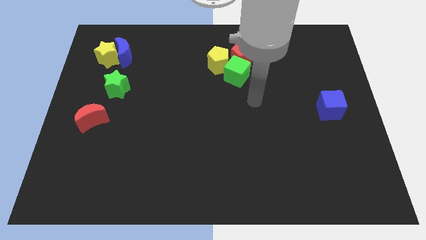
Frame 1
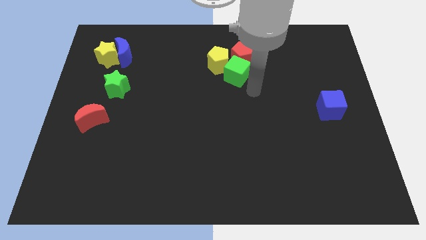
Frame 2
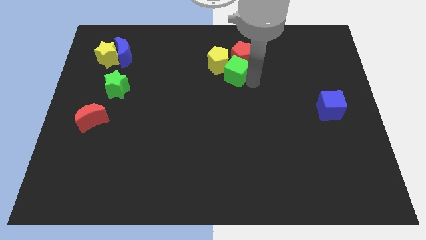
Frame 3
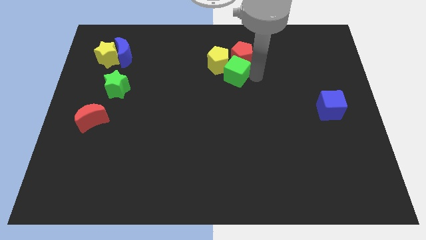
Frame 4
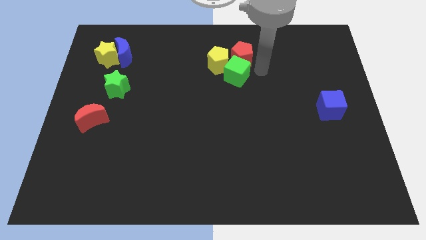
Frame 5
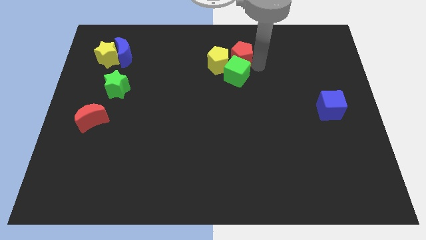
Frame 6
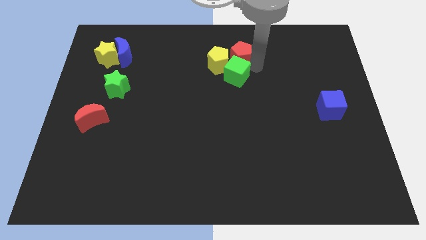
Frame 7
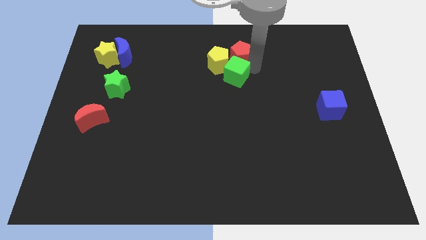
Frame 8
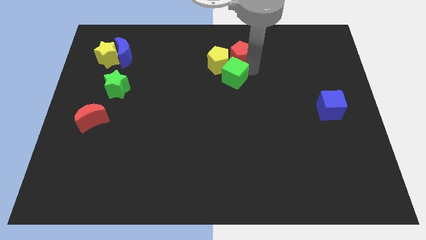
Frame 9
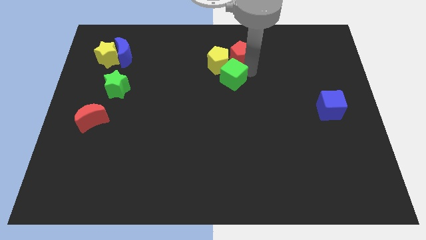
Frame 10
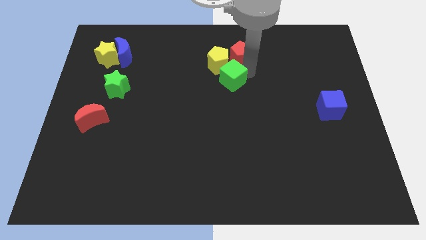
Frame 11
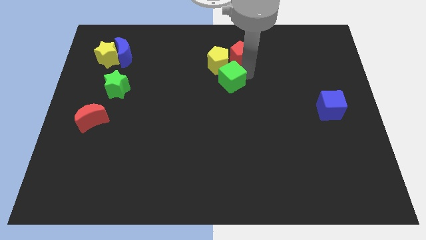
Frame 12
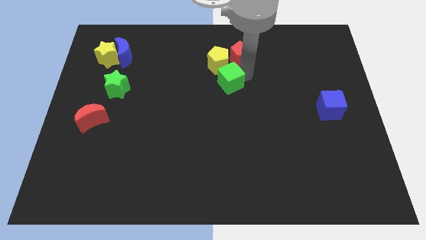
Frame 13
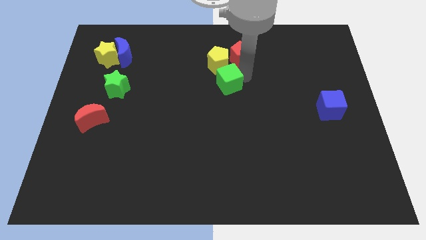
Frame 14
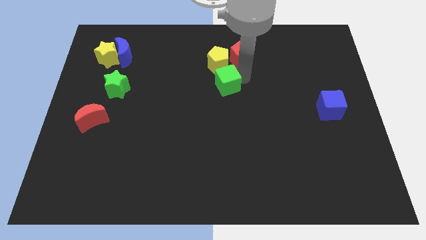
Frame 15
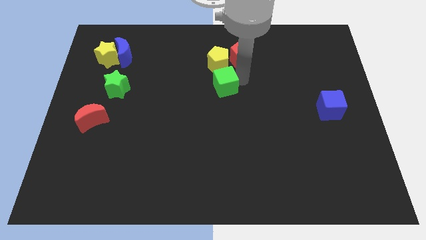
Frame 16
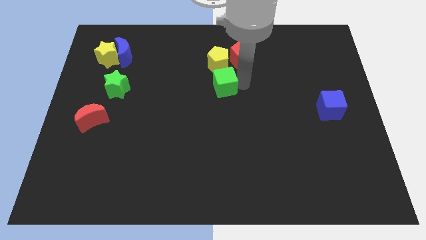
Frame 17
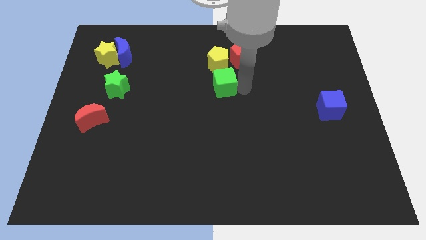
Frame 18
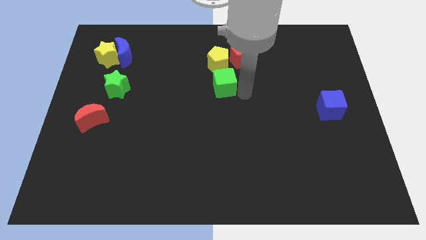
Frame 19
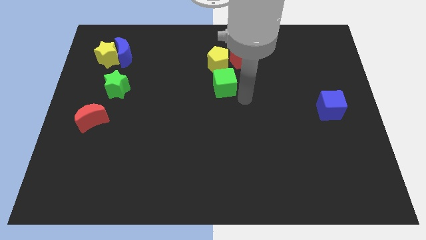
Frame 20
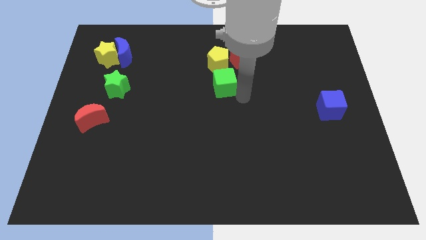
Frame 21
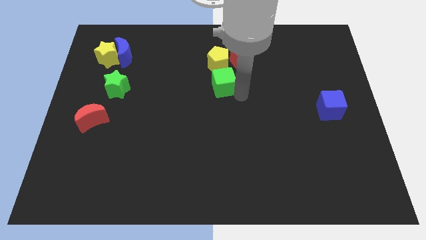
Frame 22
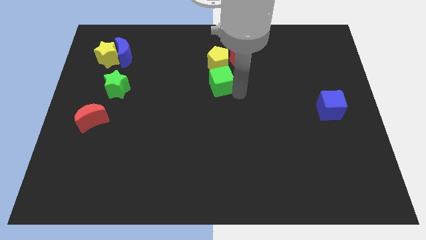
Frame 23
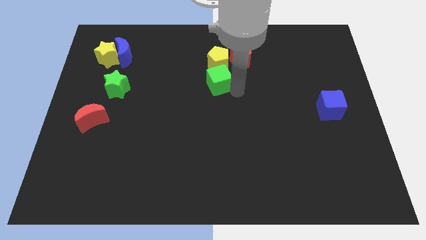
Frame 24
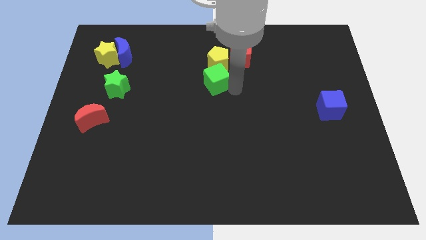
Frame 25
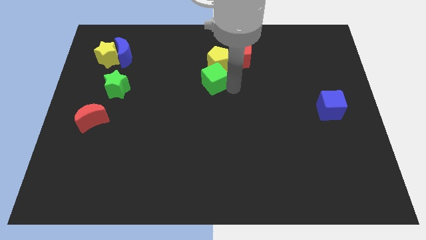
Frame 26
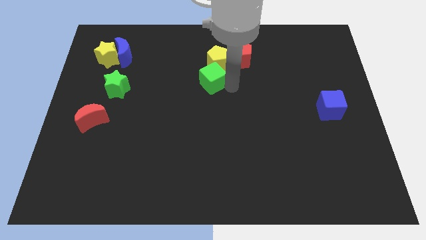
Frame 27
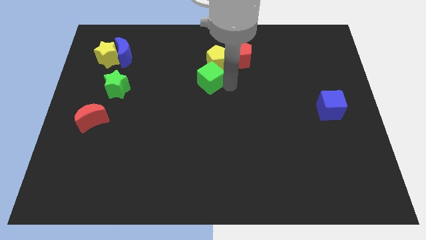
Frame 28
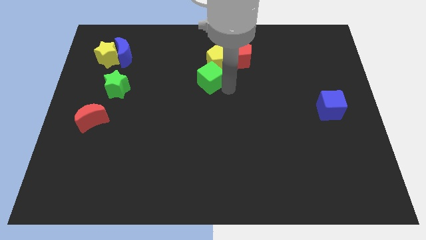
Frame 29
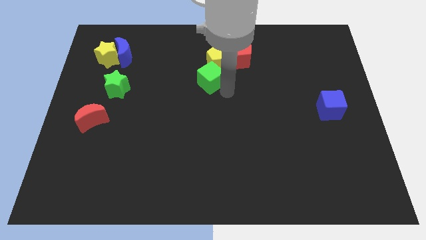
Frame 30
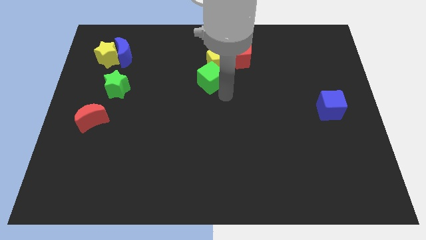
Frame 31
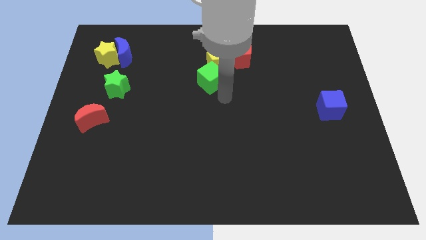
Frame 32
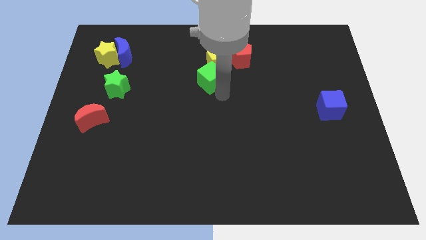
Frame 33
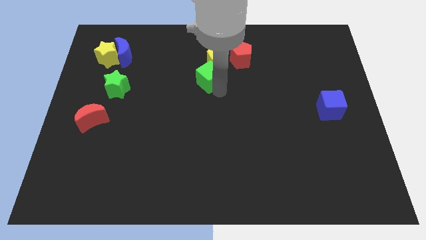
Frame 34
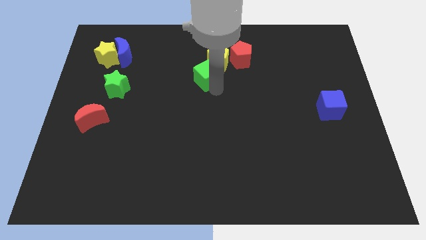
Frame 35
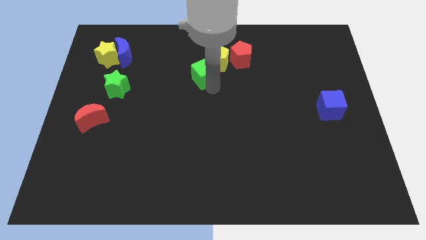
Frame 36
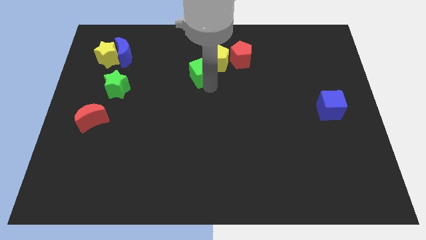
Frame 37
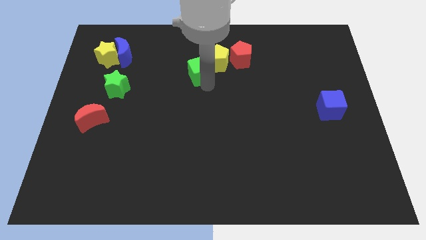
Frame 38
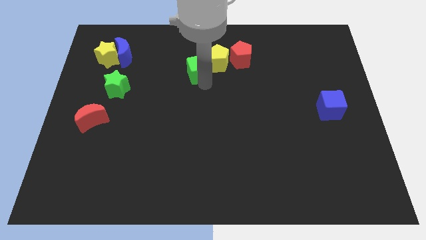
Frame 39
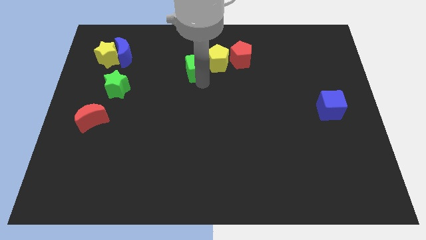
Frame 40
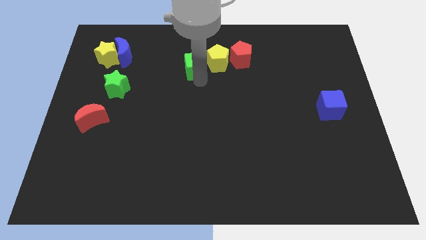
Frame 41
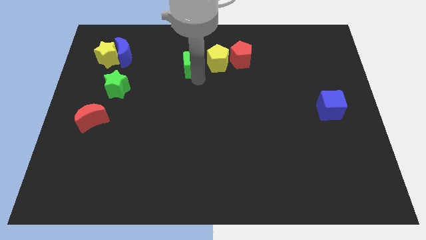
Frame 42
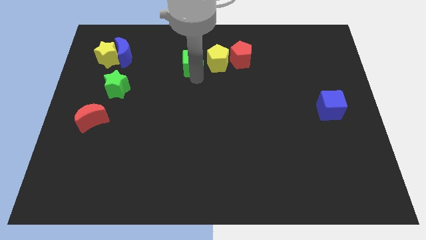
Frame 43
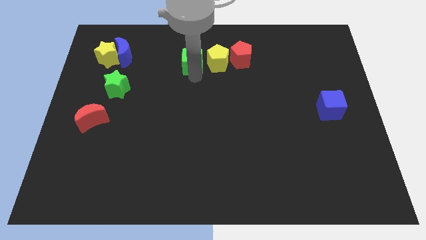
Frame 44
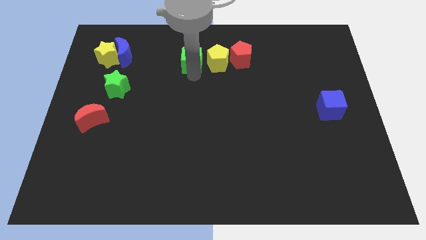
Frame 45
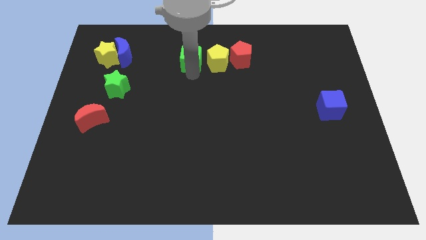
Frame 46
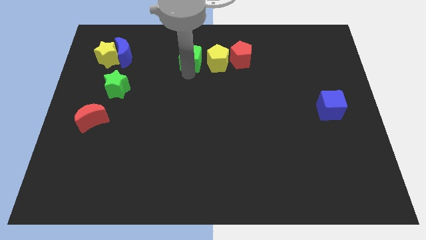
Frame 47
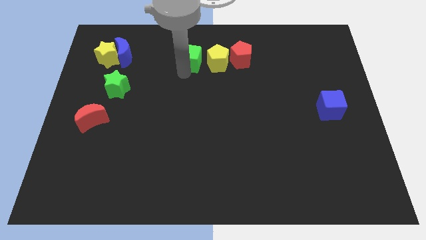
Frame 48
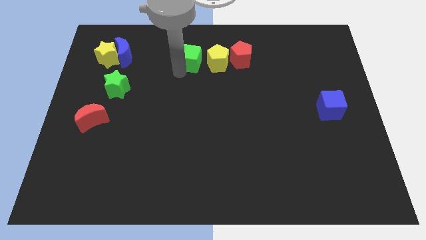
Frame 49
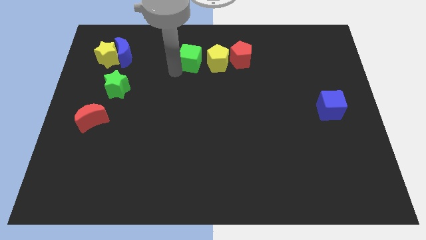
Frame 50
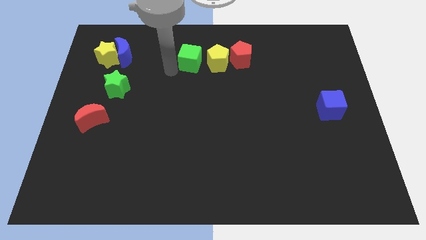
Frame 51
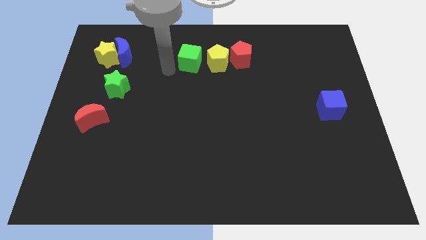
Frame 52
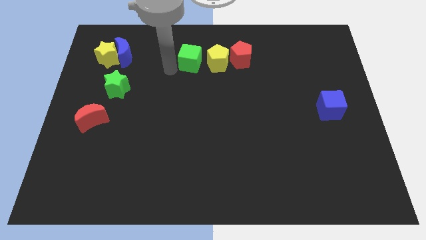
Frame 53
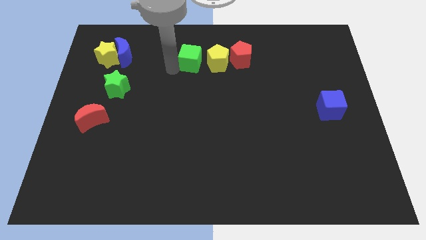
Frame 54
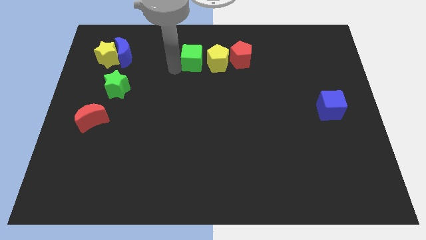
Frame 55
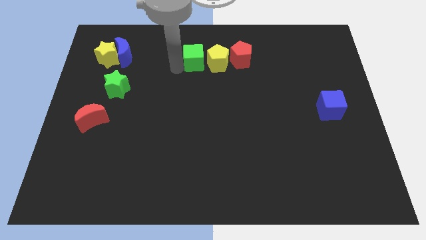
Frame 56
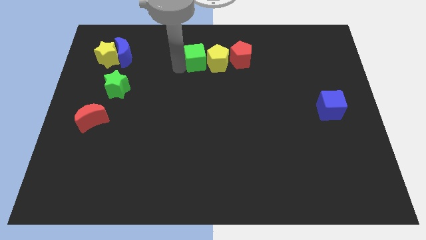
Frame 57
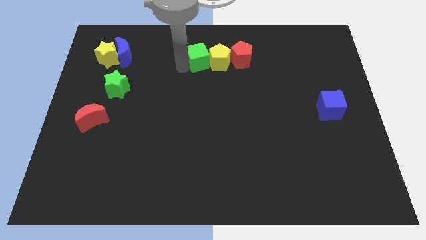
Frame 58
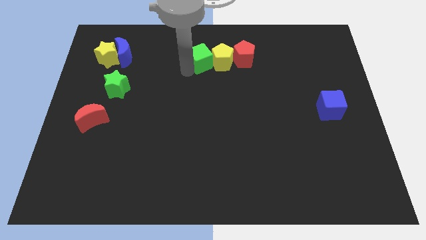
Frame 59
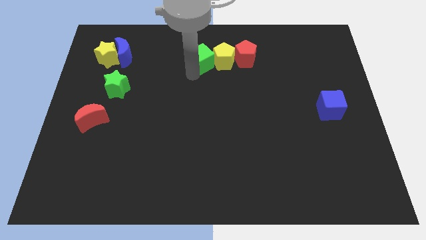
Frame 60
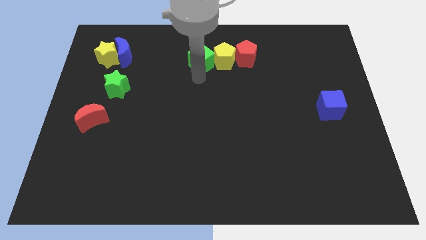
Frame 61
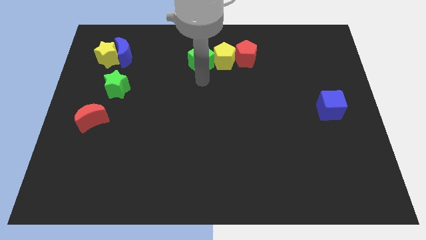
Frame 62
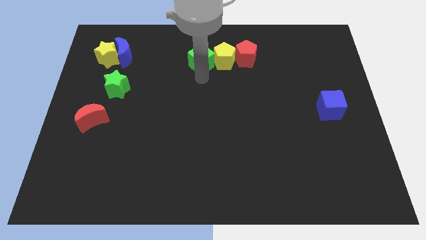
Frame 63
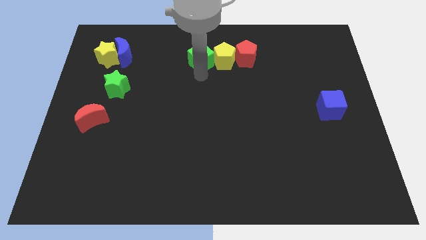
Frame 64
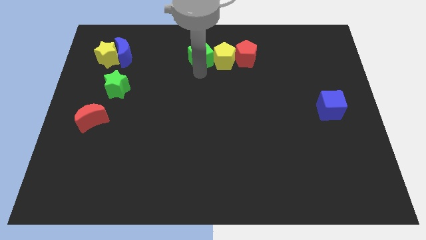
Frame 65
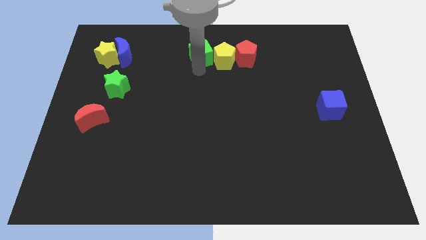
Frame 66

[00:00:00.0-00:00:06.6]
slide the green cube to the top side
